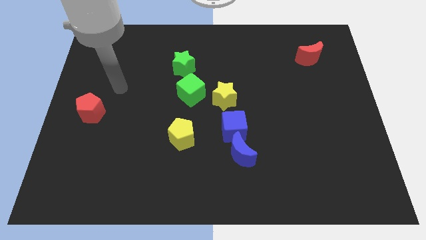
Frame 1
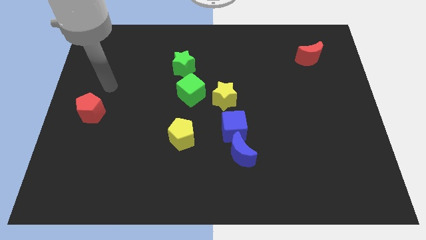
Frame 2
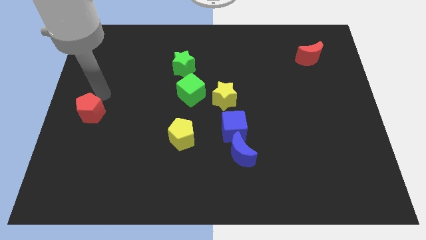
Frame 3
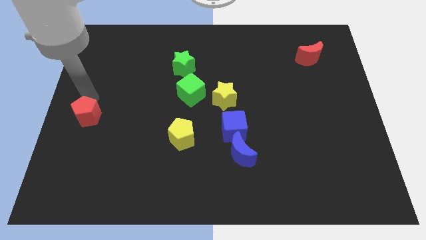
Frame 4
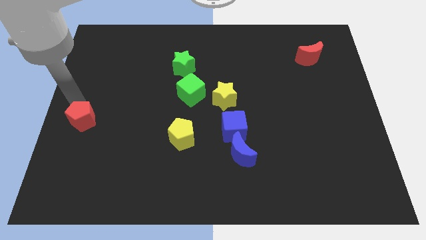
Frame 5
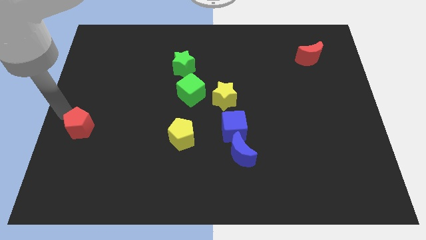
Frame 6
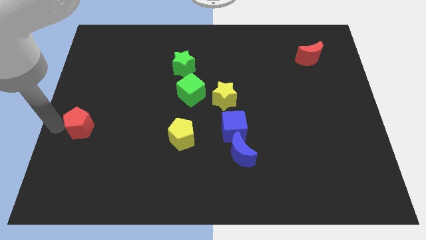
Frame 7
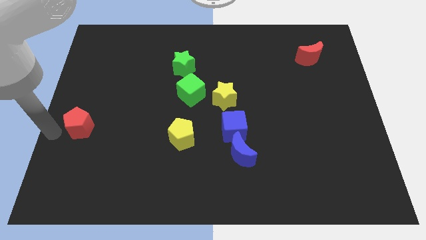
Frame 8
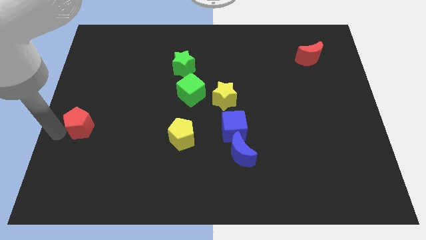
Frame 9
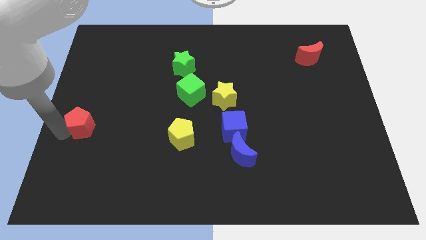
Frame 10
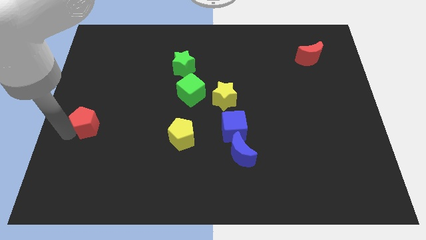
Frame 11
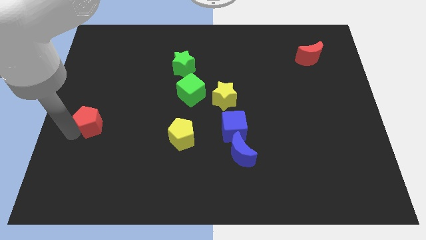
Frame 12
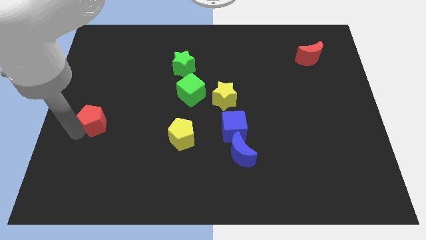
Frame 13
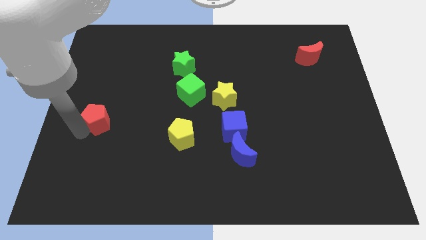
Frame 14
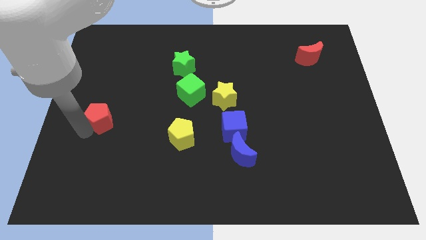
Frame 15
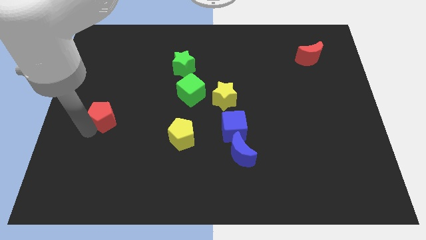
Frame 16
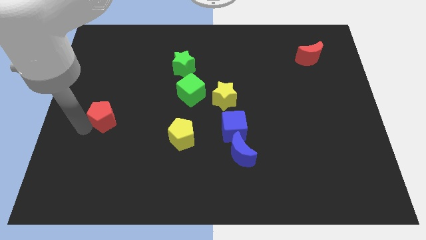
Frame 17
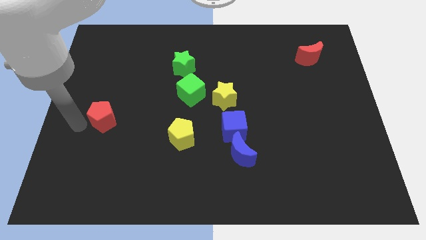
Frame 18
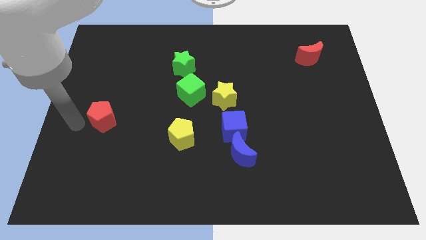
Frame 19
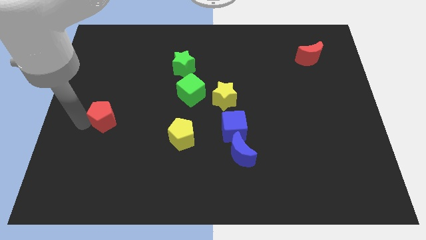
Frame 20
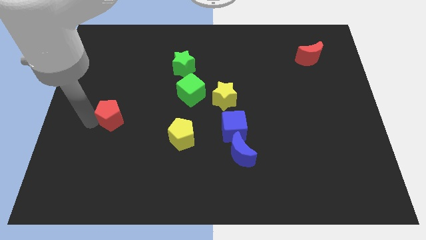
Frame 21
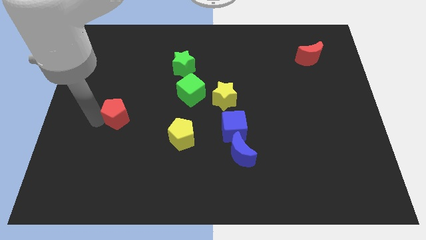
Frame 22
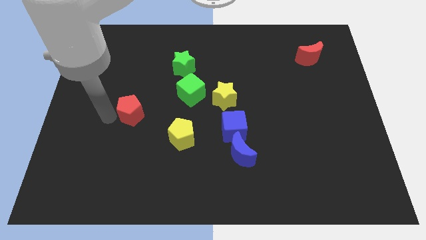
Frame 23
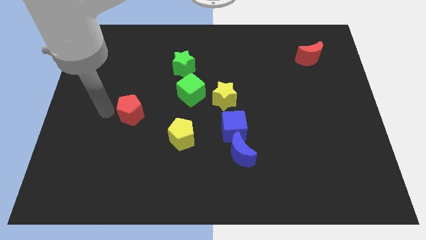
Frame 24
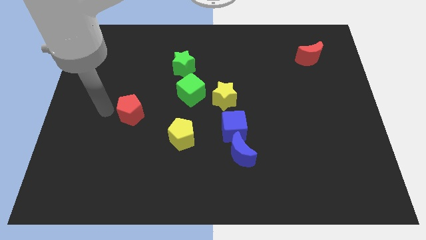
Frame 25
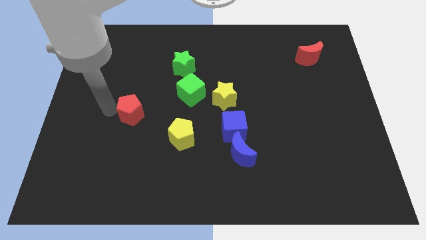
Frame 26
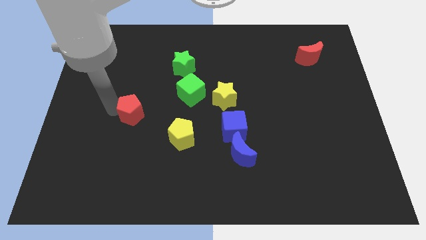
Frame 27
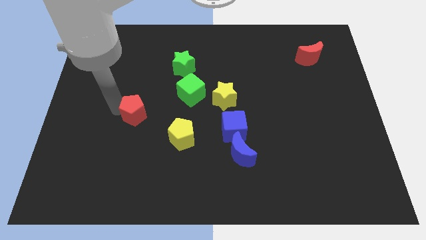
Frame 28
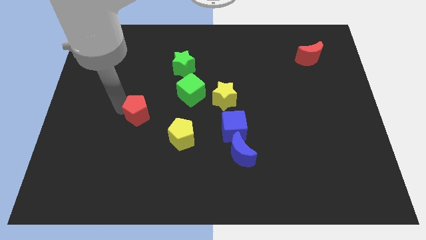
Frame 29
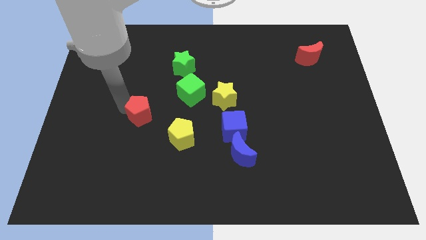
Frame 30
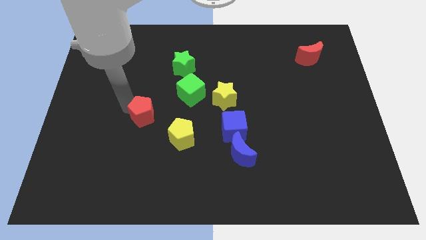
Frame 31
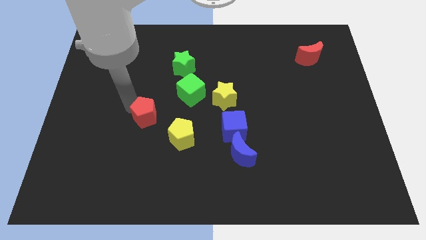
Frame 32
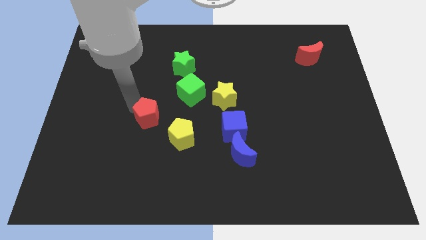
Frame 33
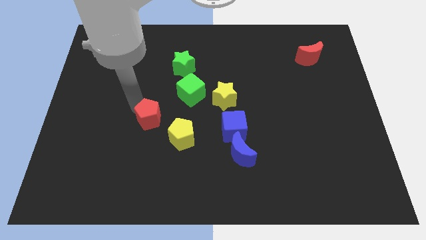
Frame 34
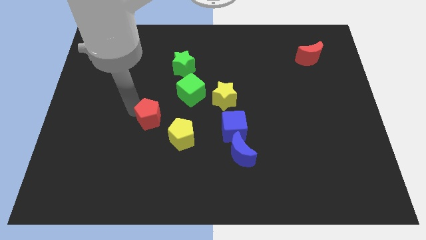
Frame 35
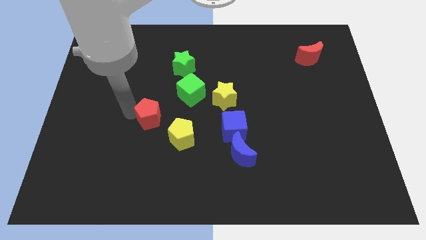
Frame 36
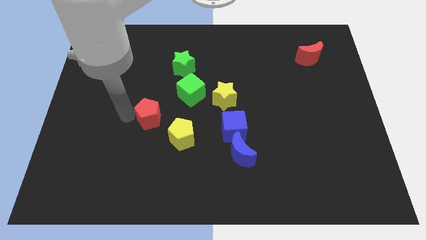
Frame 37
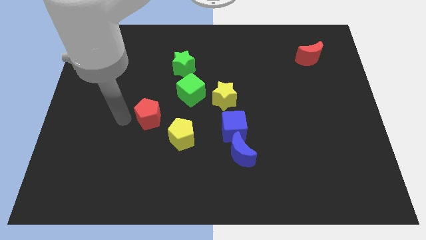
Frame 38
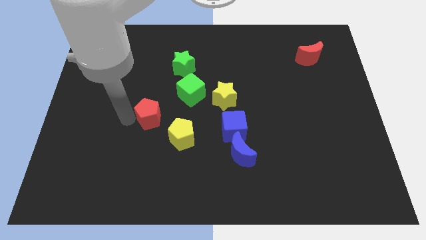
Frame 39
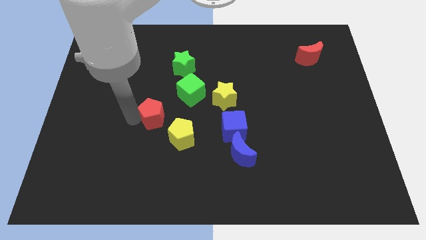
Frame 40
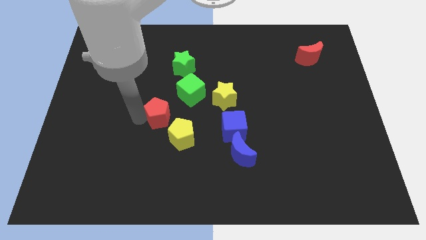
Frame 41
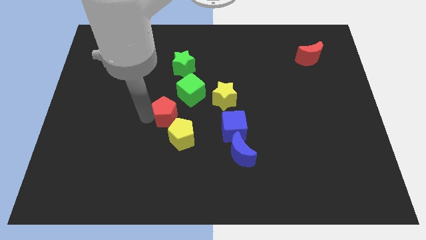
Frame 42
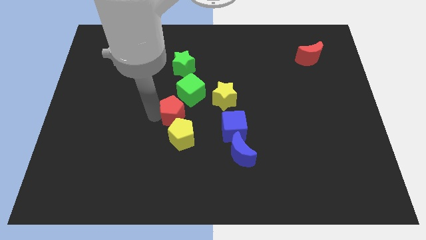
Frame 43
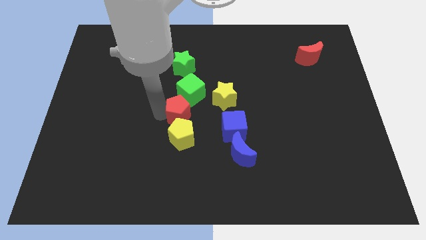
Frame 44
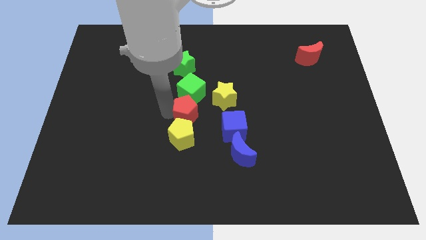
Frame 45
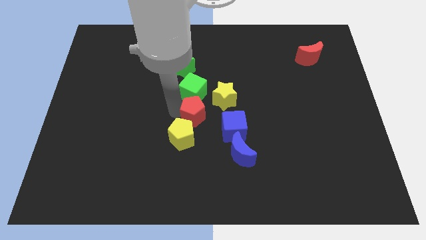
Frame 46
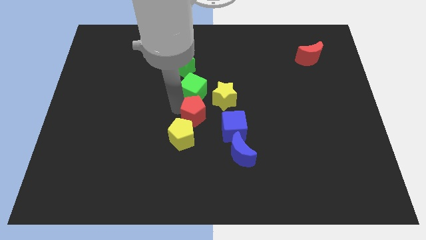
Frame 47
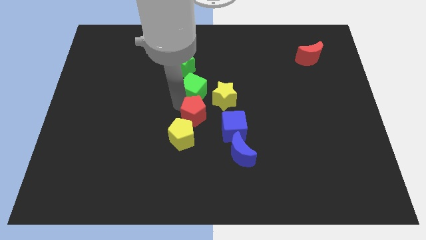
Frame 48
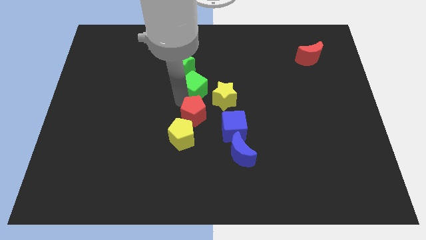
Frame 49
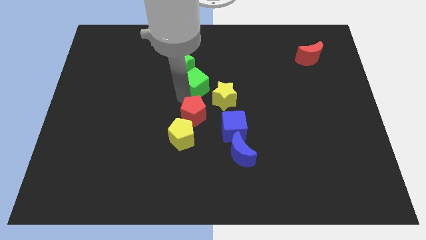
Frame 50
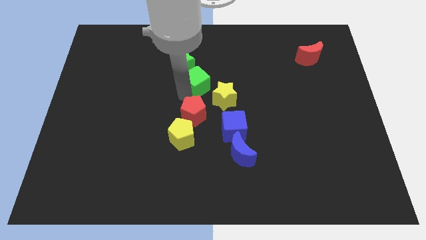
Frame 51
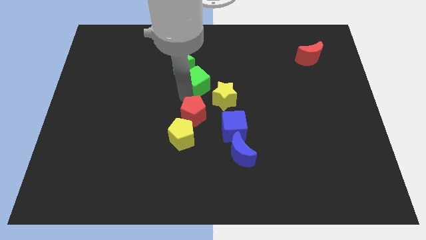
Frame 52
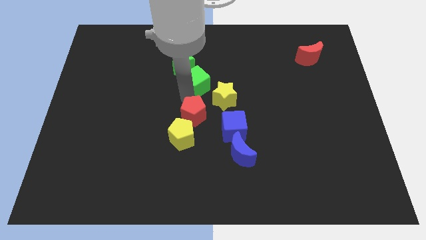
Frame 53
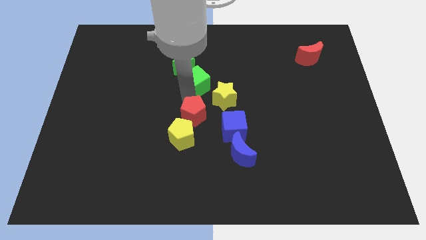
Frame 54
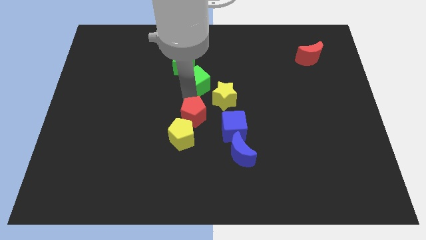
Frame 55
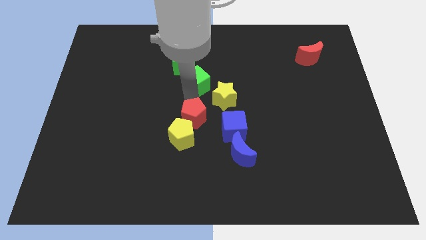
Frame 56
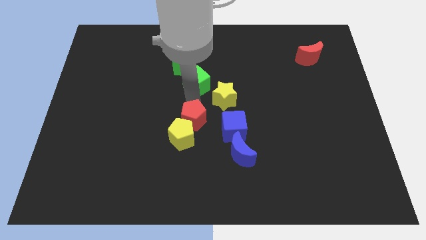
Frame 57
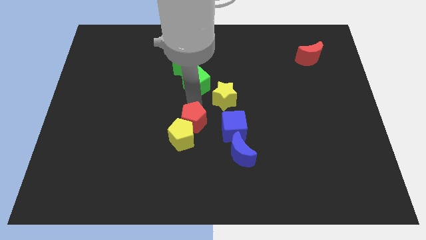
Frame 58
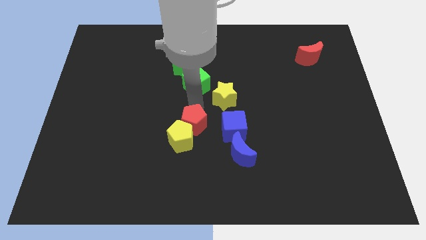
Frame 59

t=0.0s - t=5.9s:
put the red pentagon to the top left side of the blue moon
